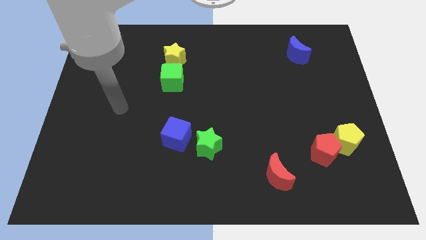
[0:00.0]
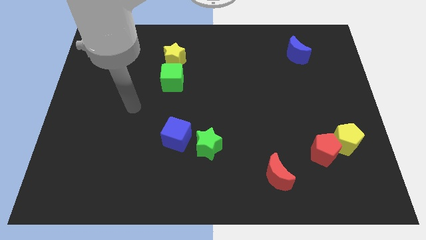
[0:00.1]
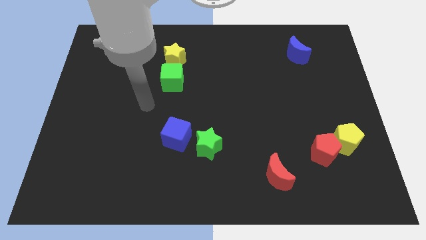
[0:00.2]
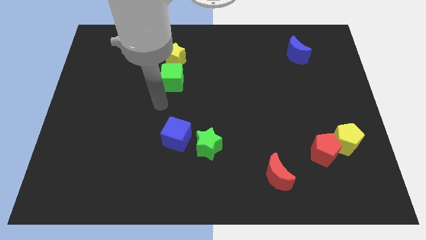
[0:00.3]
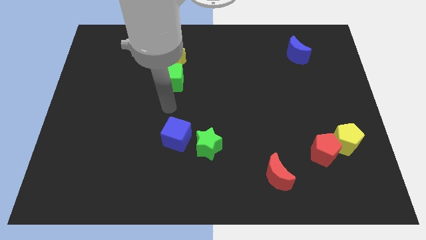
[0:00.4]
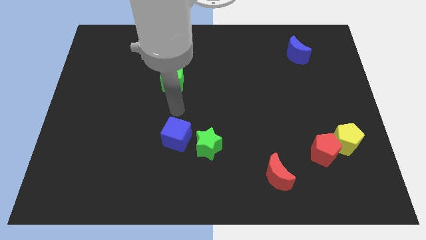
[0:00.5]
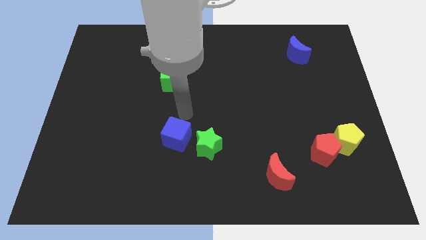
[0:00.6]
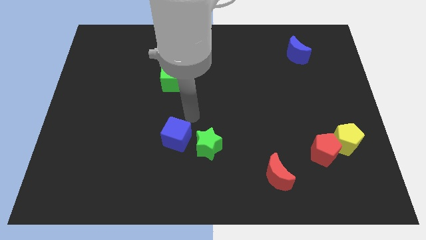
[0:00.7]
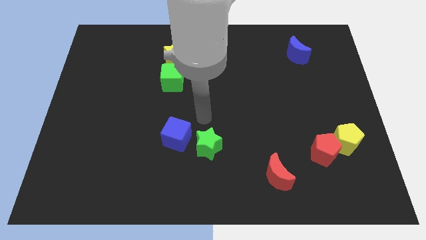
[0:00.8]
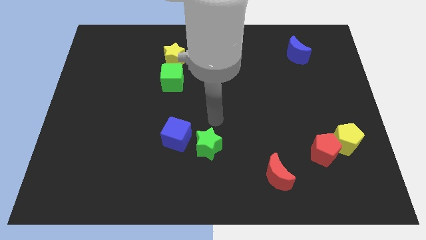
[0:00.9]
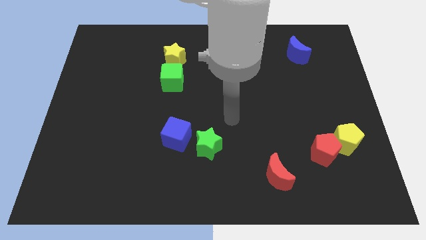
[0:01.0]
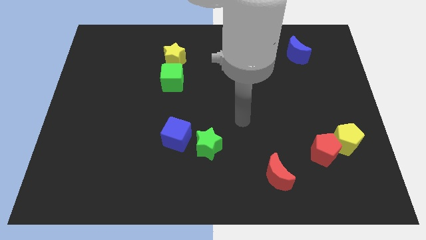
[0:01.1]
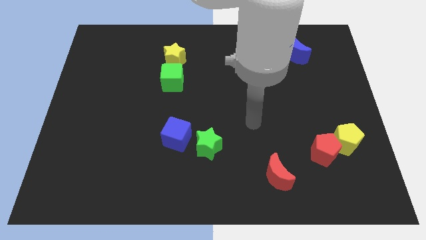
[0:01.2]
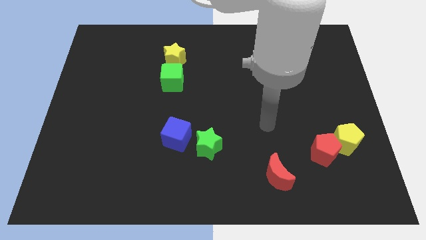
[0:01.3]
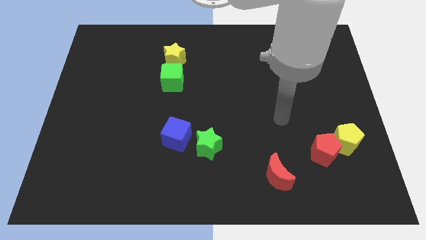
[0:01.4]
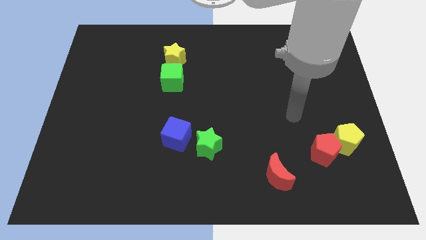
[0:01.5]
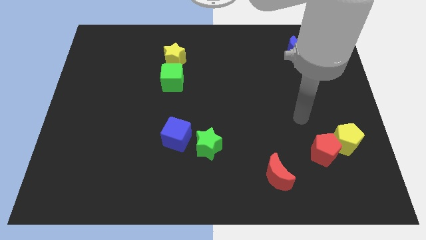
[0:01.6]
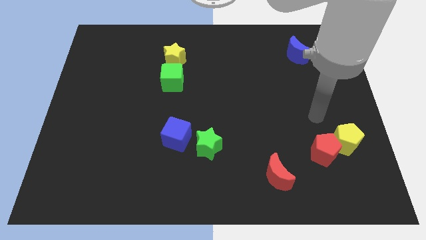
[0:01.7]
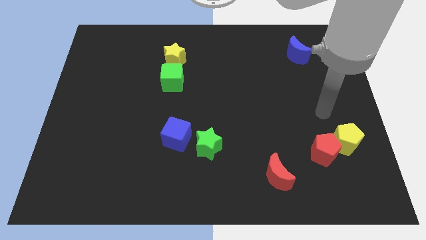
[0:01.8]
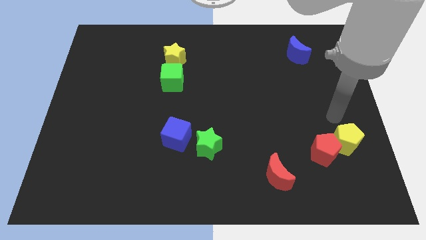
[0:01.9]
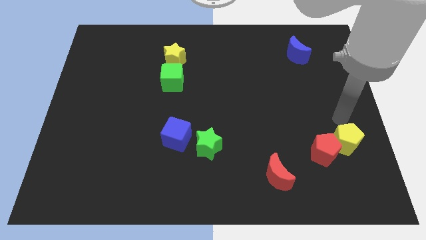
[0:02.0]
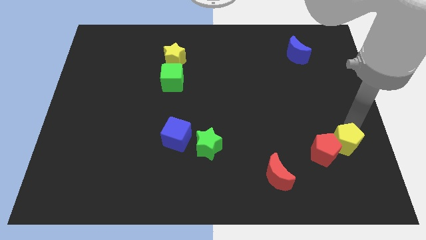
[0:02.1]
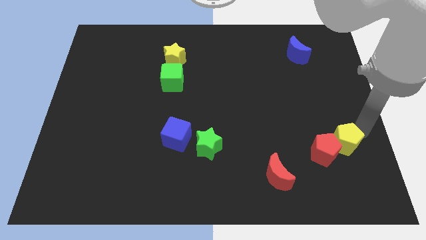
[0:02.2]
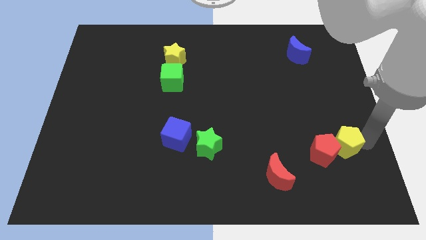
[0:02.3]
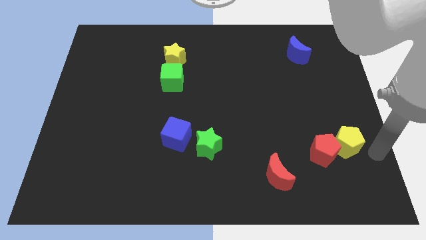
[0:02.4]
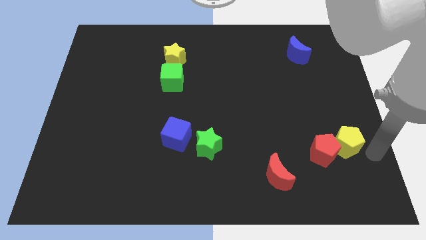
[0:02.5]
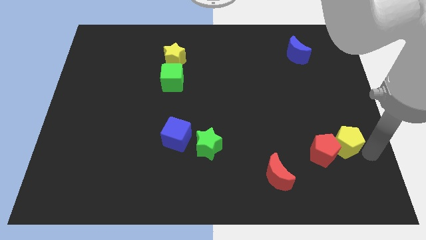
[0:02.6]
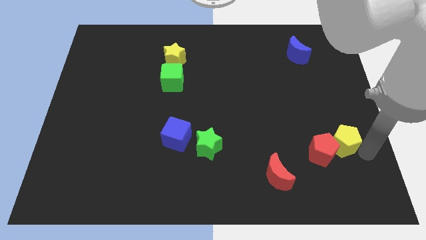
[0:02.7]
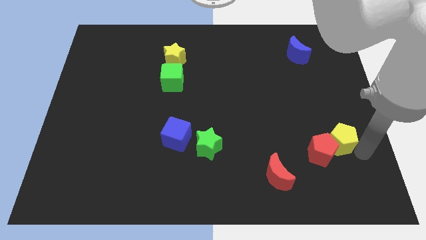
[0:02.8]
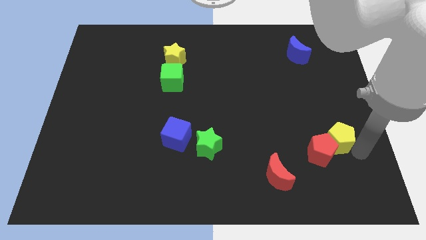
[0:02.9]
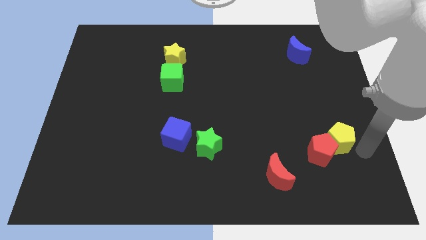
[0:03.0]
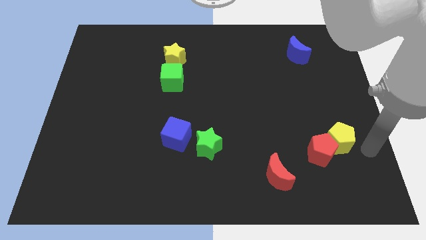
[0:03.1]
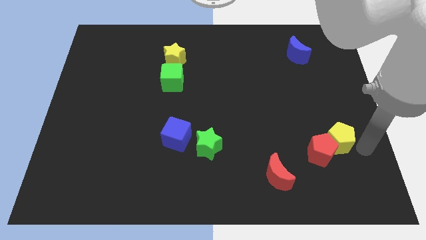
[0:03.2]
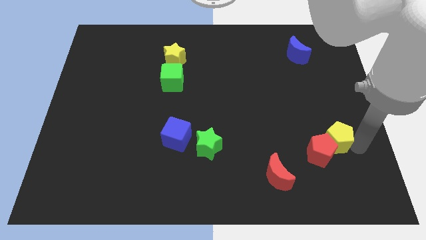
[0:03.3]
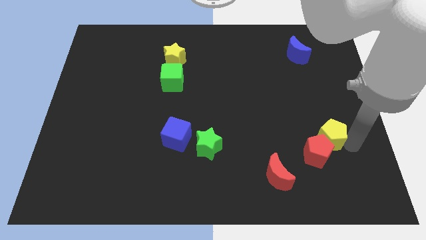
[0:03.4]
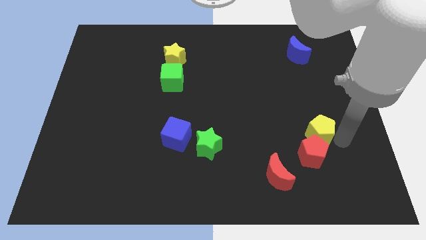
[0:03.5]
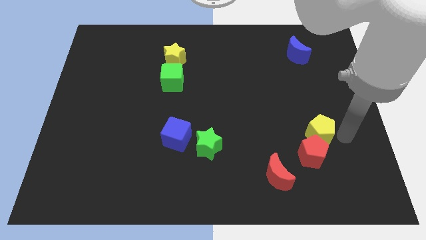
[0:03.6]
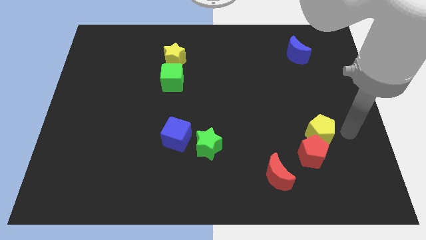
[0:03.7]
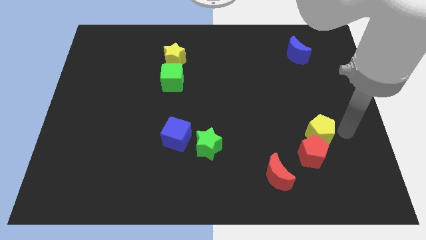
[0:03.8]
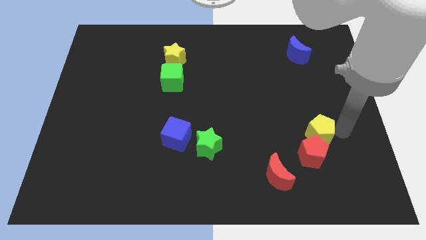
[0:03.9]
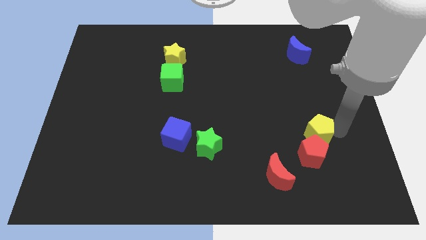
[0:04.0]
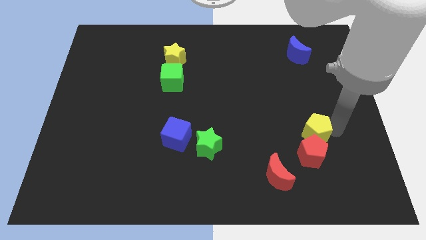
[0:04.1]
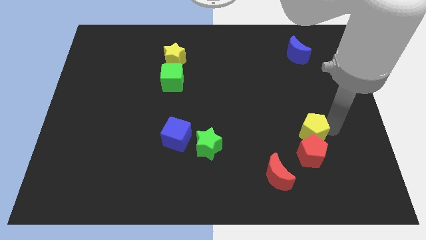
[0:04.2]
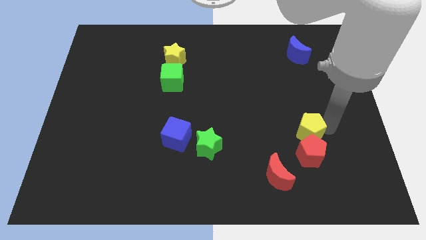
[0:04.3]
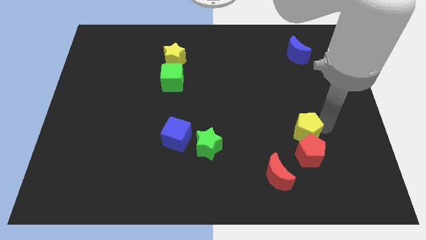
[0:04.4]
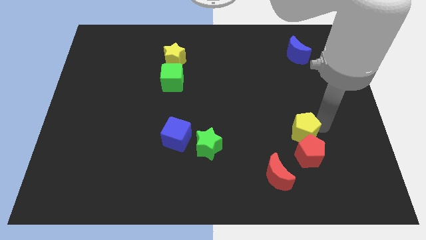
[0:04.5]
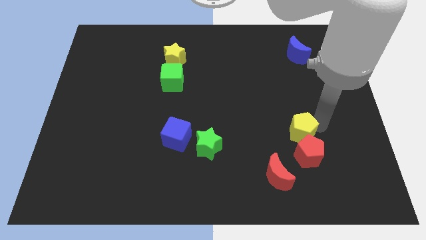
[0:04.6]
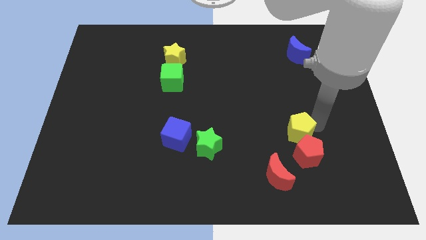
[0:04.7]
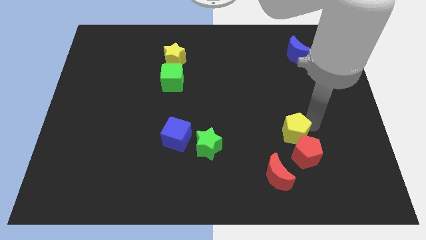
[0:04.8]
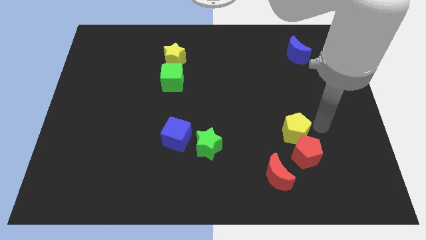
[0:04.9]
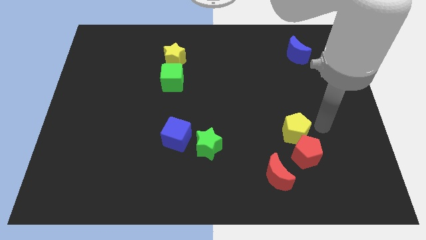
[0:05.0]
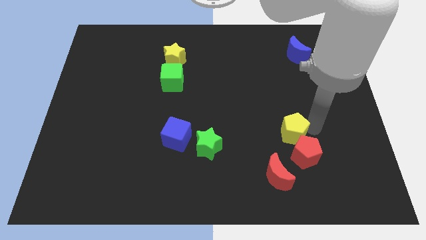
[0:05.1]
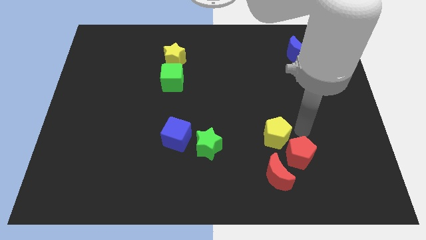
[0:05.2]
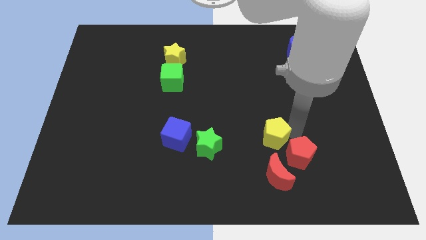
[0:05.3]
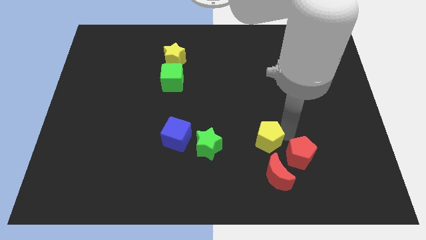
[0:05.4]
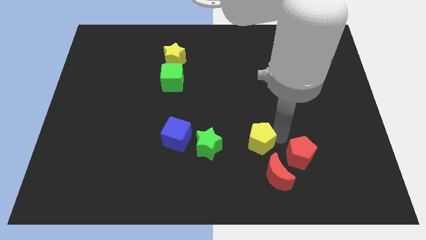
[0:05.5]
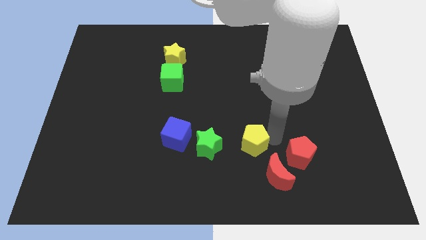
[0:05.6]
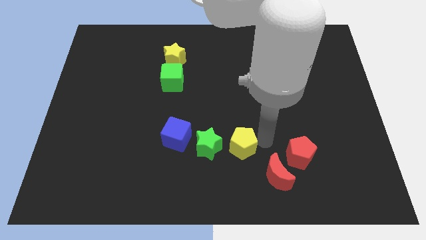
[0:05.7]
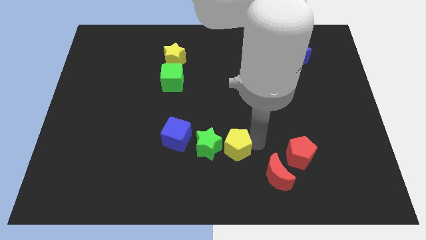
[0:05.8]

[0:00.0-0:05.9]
move the yellow pentagon to the green star
